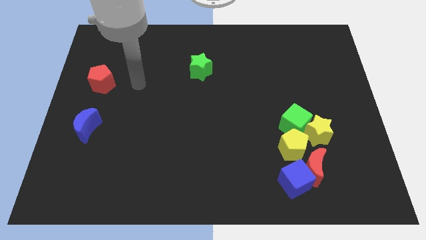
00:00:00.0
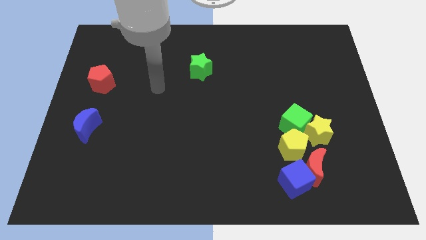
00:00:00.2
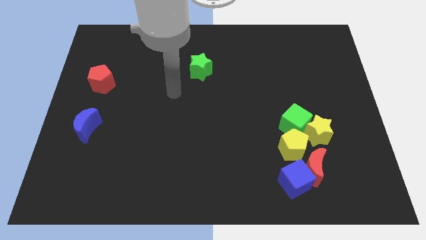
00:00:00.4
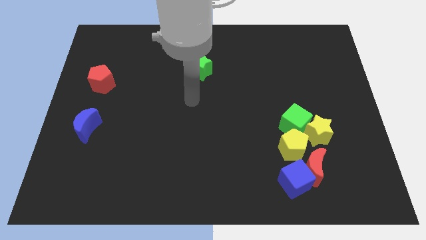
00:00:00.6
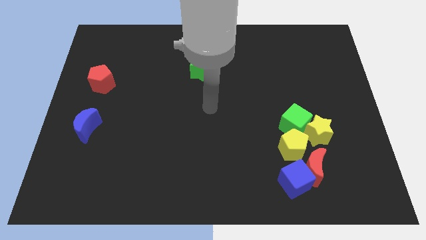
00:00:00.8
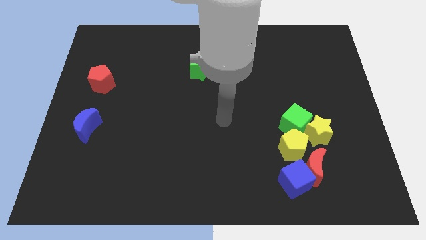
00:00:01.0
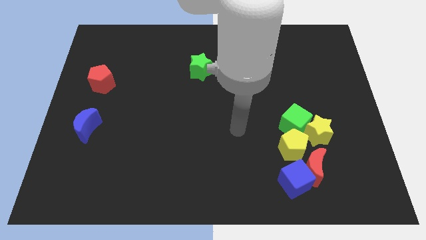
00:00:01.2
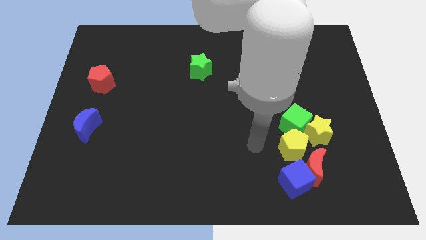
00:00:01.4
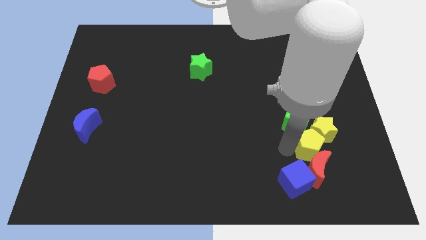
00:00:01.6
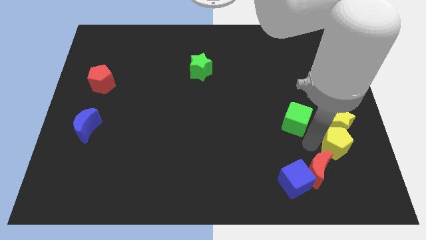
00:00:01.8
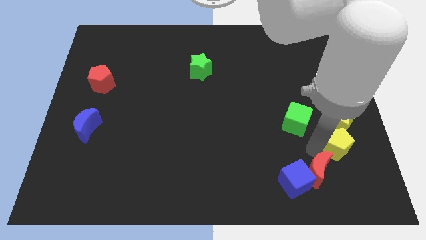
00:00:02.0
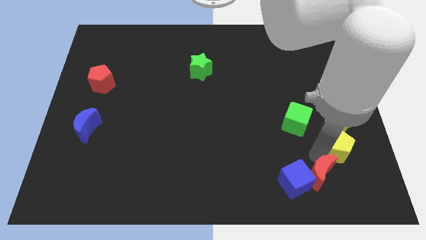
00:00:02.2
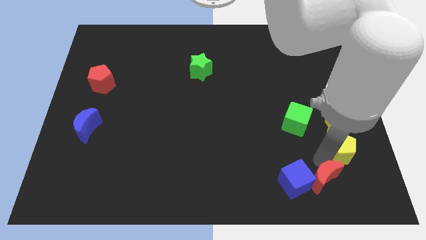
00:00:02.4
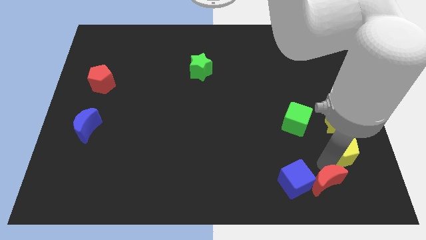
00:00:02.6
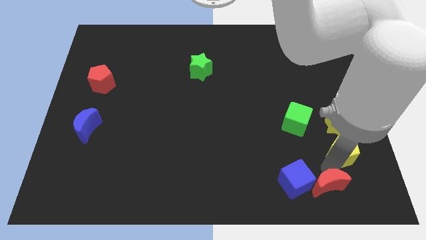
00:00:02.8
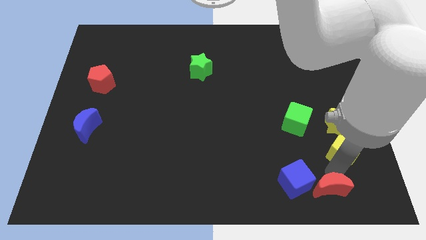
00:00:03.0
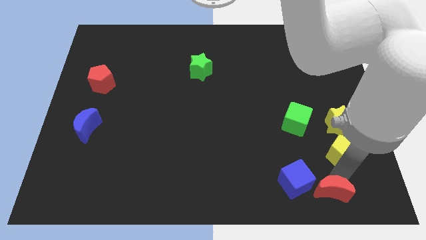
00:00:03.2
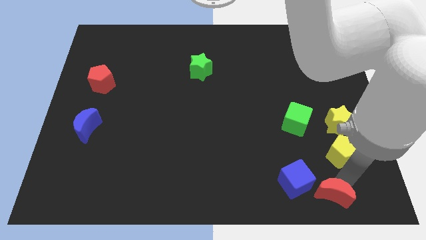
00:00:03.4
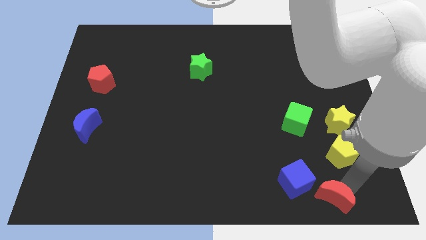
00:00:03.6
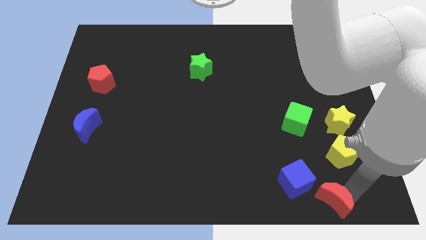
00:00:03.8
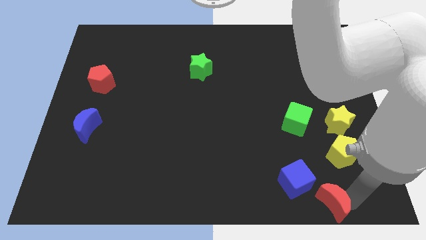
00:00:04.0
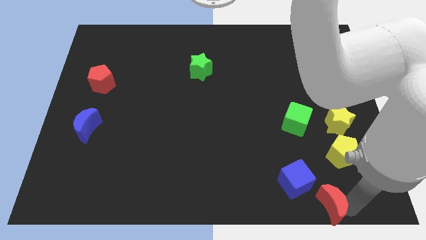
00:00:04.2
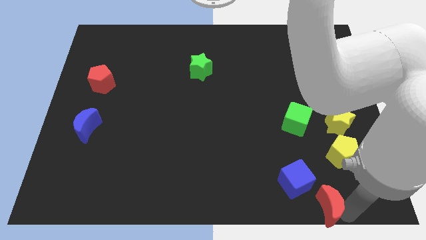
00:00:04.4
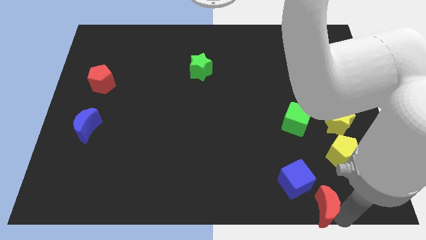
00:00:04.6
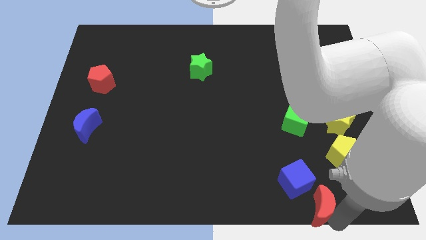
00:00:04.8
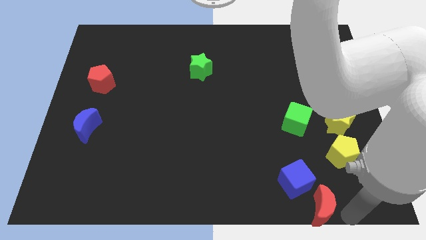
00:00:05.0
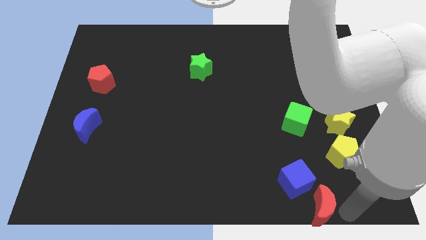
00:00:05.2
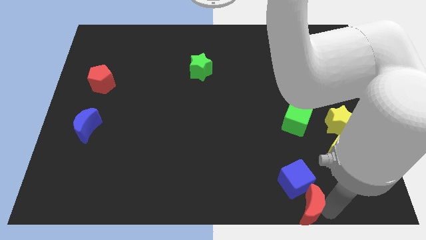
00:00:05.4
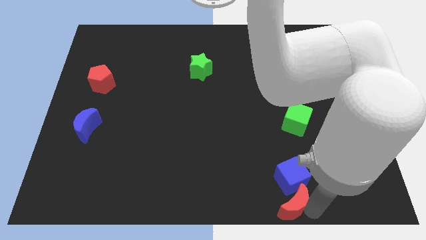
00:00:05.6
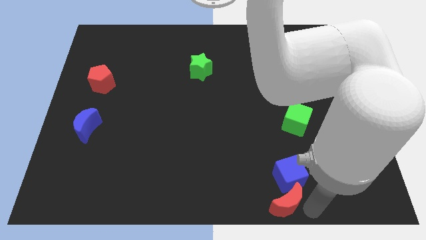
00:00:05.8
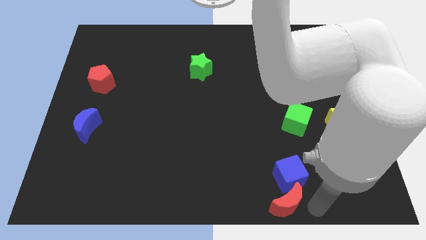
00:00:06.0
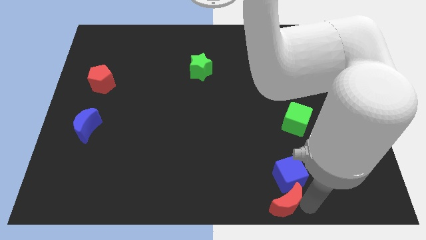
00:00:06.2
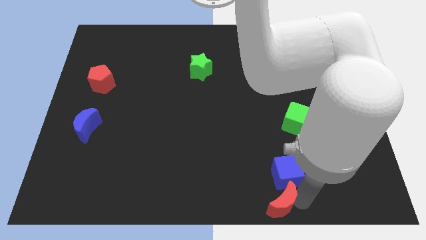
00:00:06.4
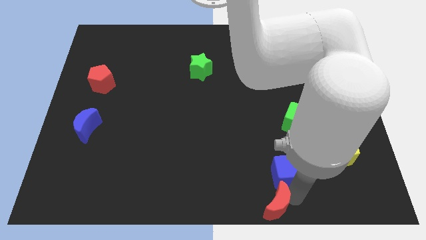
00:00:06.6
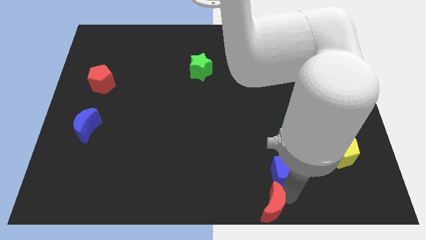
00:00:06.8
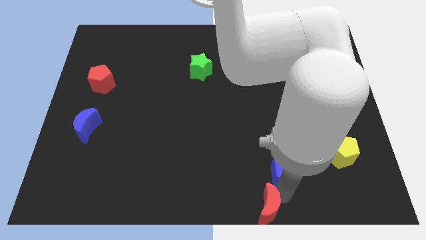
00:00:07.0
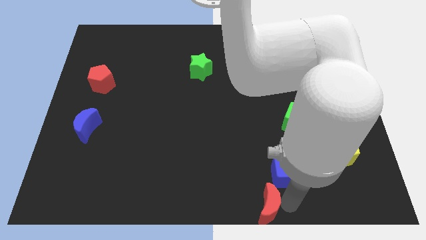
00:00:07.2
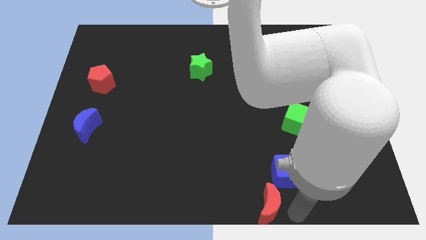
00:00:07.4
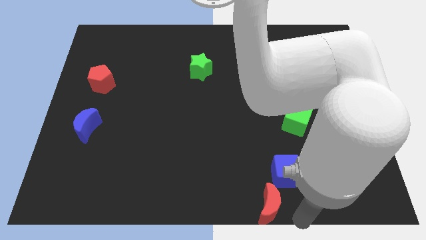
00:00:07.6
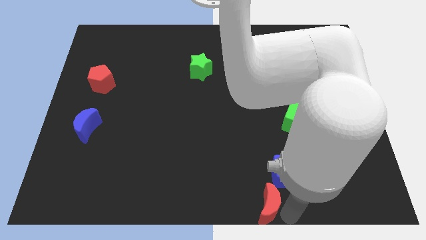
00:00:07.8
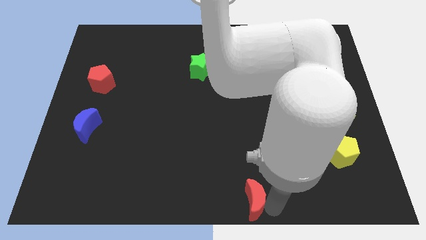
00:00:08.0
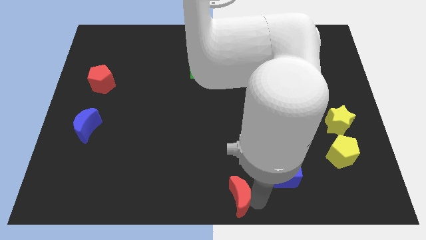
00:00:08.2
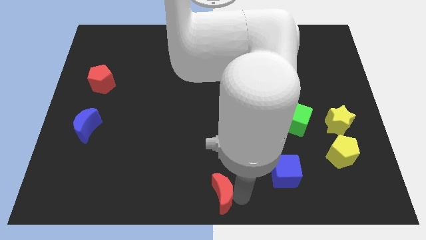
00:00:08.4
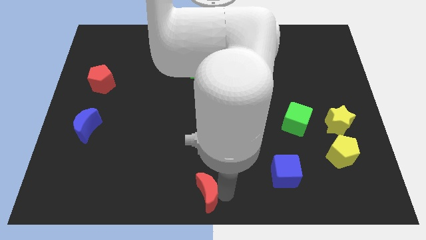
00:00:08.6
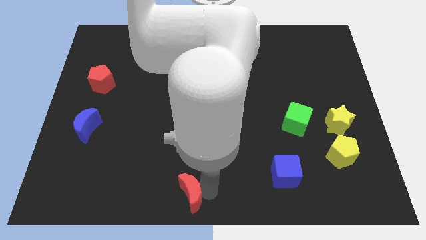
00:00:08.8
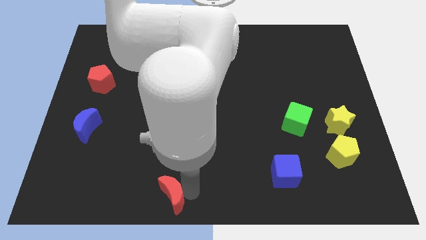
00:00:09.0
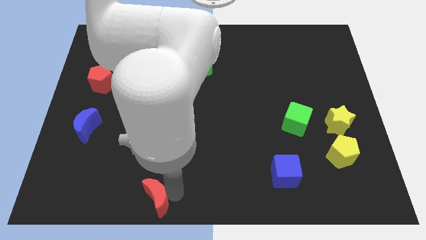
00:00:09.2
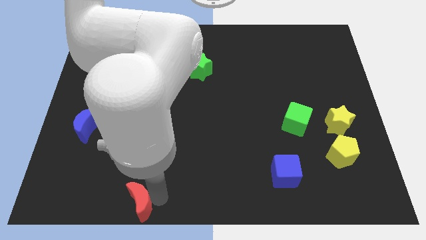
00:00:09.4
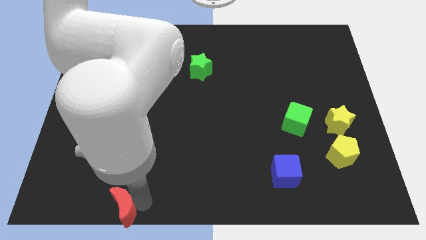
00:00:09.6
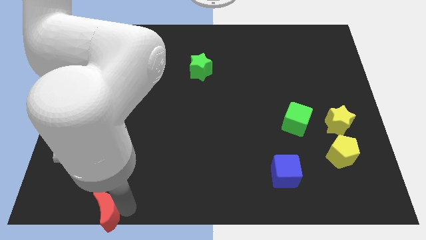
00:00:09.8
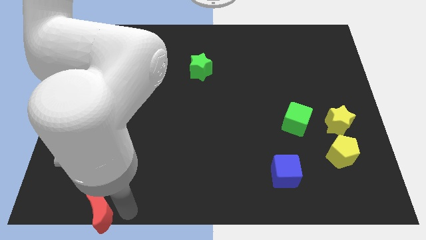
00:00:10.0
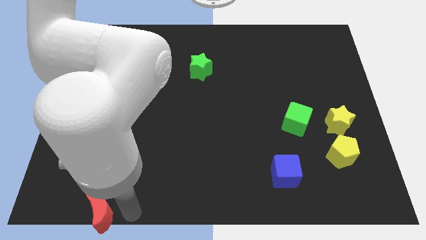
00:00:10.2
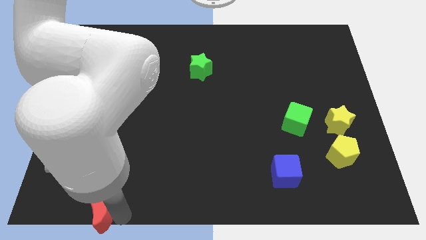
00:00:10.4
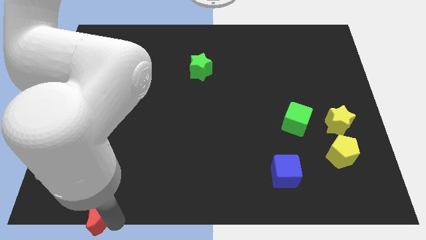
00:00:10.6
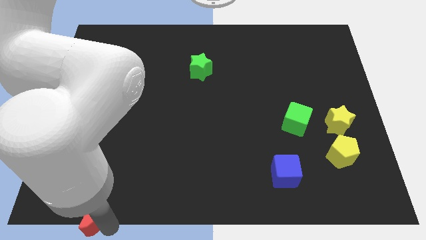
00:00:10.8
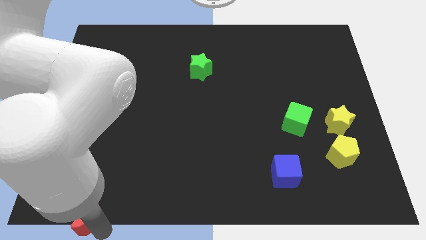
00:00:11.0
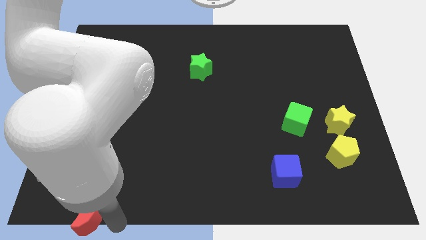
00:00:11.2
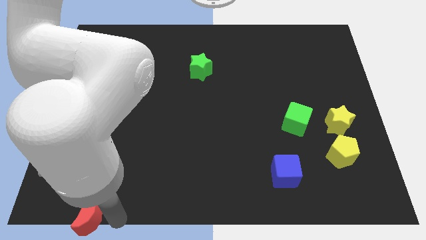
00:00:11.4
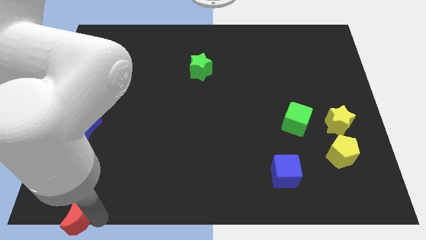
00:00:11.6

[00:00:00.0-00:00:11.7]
put the red moon to the bottom left of the board

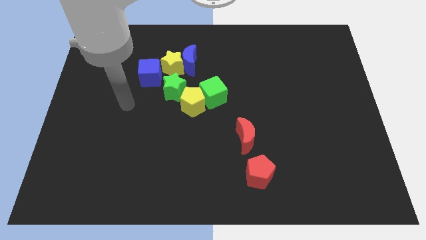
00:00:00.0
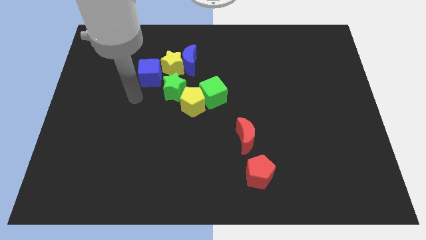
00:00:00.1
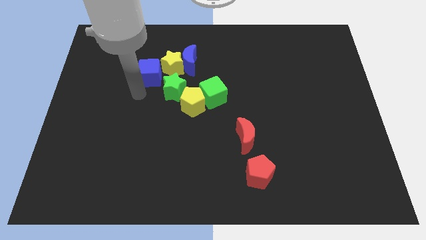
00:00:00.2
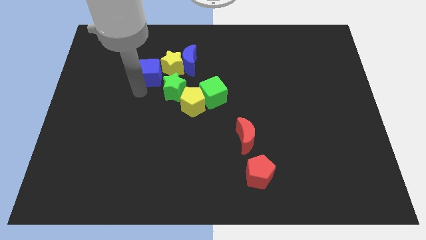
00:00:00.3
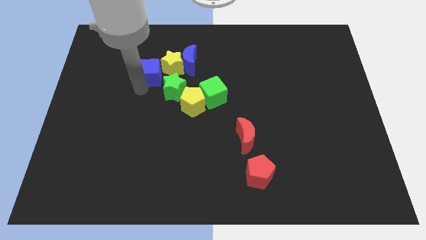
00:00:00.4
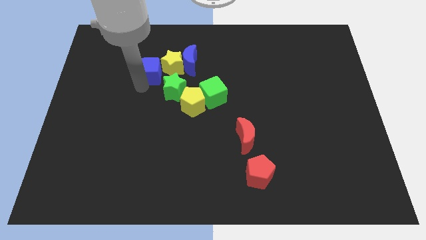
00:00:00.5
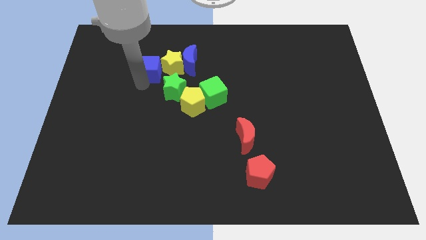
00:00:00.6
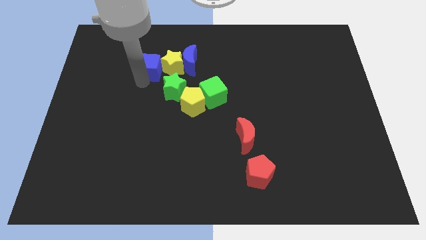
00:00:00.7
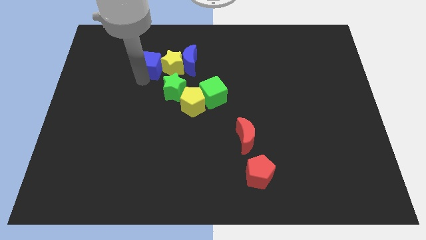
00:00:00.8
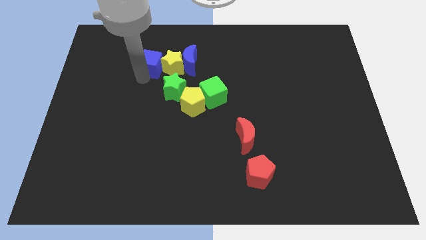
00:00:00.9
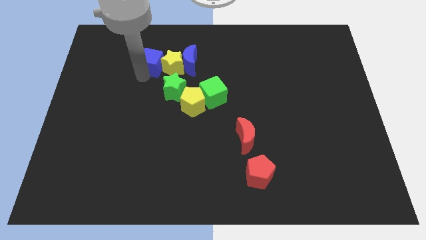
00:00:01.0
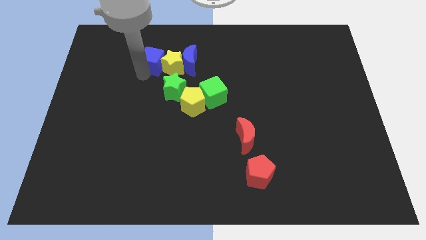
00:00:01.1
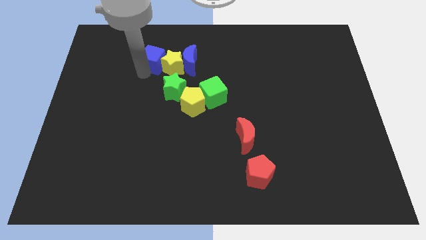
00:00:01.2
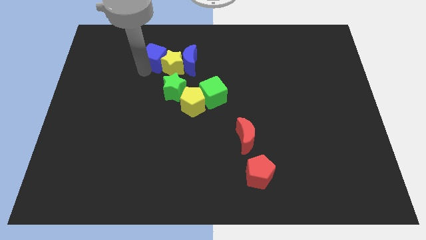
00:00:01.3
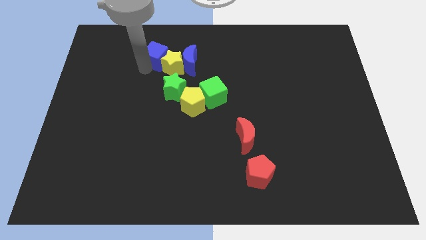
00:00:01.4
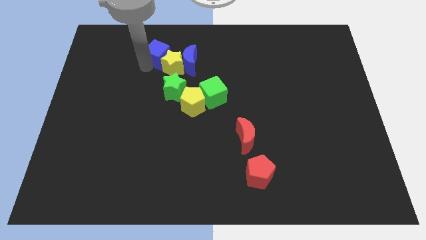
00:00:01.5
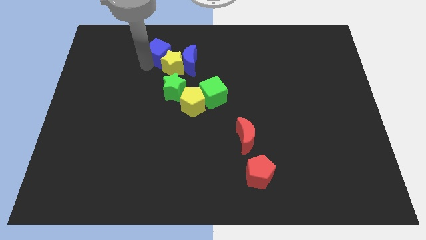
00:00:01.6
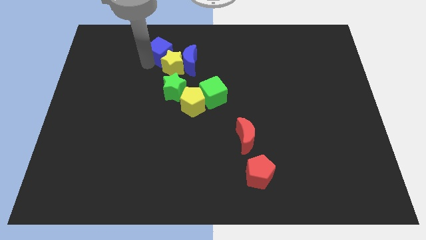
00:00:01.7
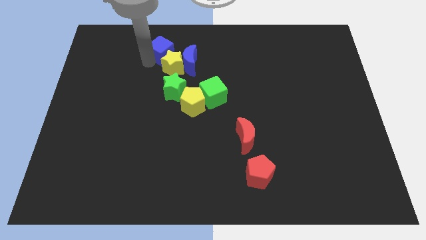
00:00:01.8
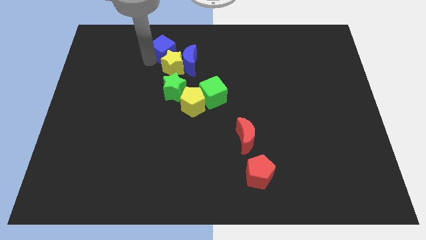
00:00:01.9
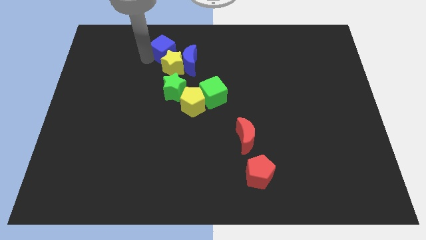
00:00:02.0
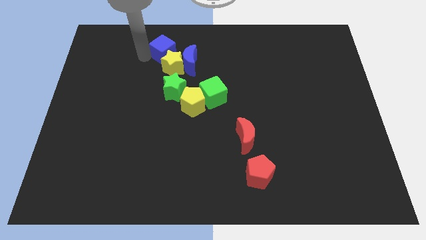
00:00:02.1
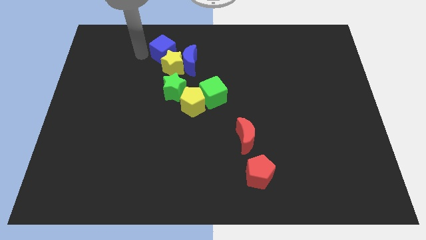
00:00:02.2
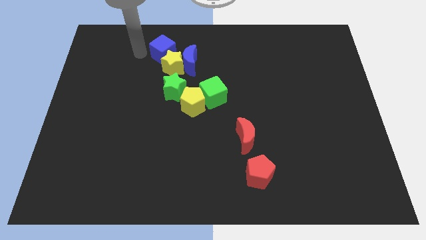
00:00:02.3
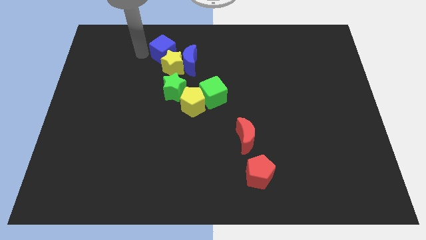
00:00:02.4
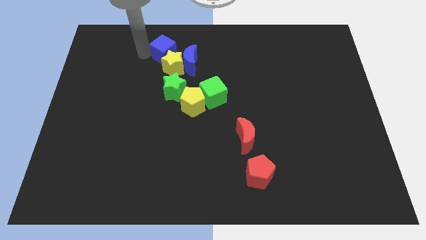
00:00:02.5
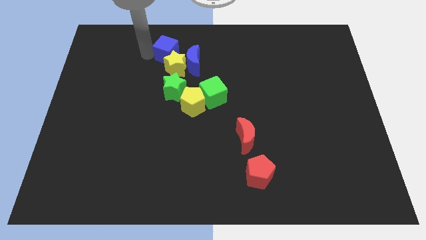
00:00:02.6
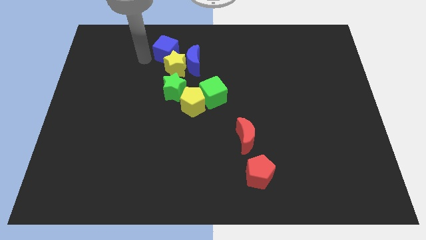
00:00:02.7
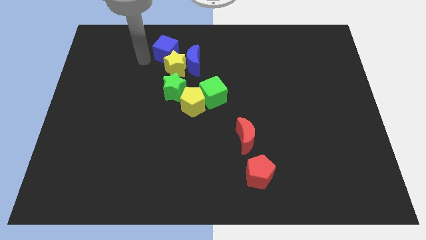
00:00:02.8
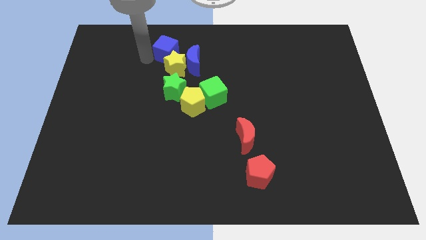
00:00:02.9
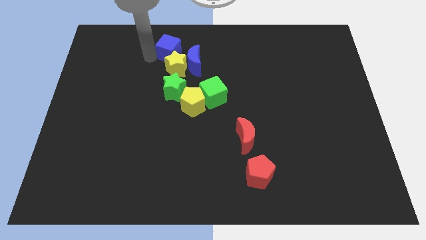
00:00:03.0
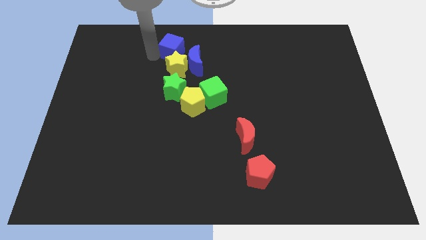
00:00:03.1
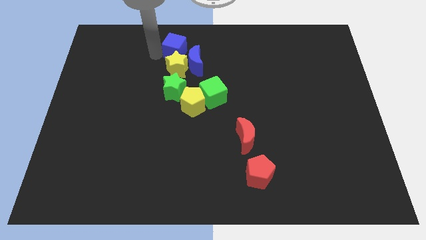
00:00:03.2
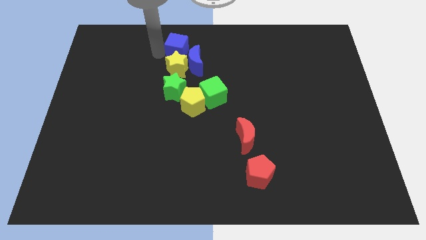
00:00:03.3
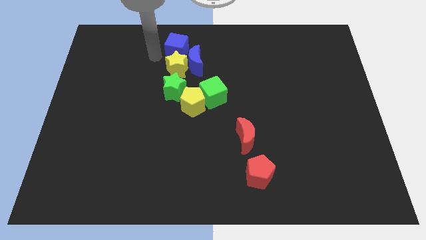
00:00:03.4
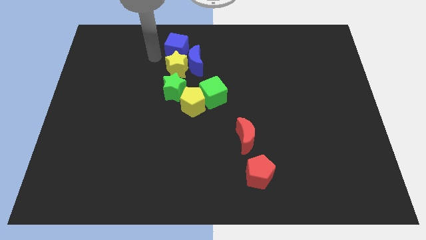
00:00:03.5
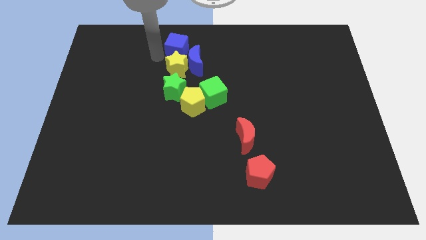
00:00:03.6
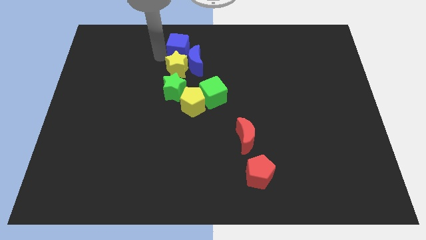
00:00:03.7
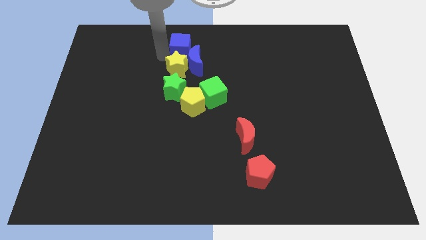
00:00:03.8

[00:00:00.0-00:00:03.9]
put the blue cube to the top side
